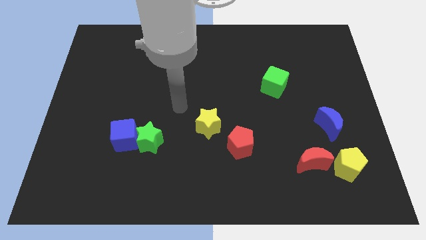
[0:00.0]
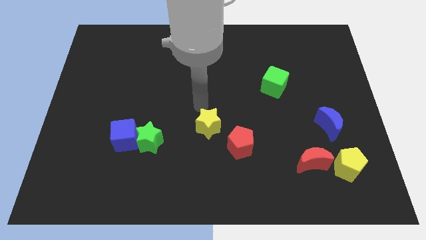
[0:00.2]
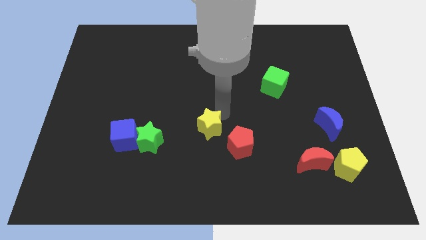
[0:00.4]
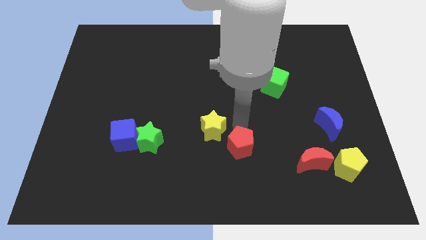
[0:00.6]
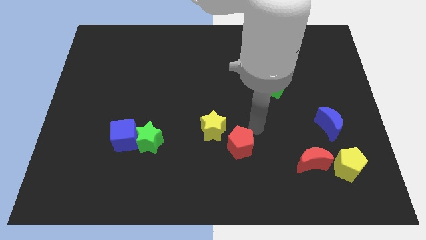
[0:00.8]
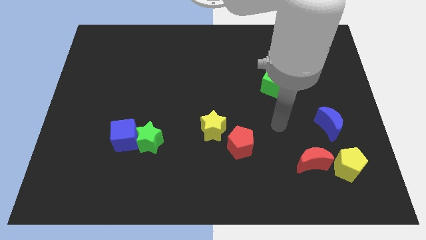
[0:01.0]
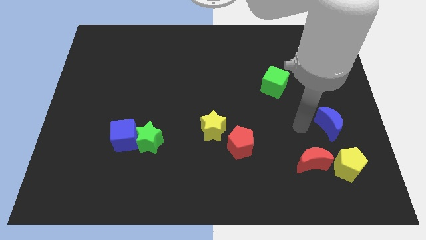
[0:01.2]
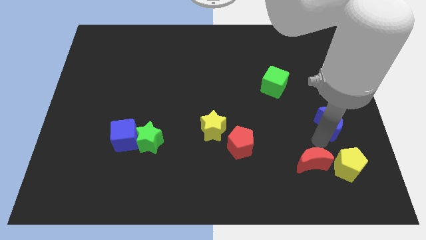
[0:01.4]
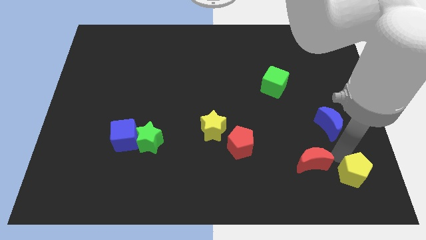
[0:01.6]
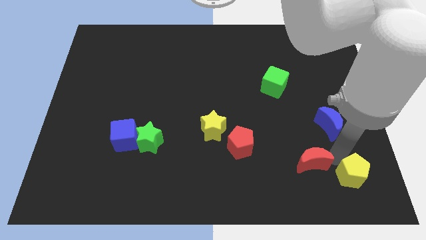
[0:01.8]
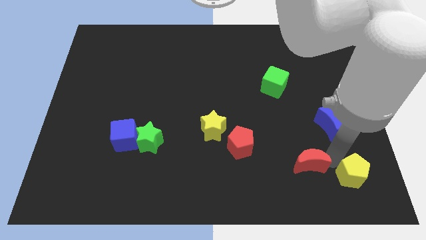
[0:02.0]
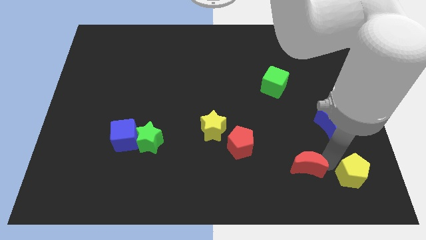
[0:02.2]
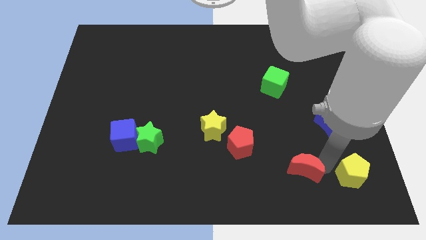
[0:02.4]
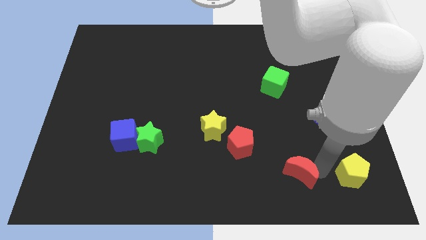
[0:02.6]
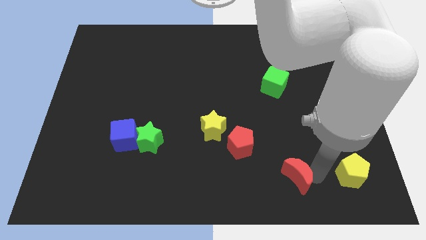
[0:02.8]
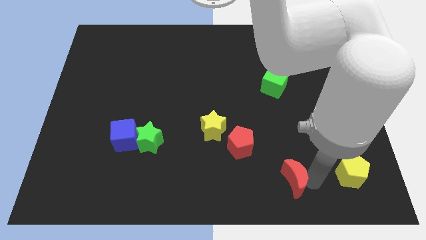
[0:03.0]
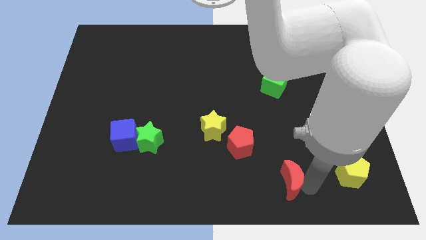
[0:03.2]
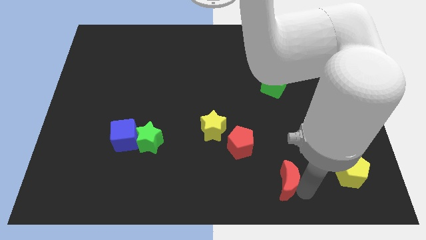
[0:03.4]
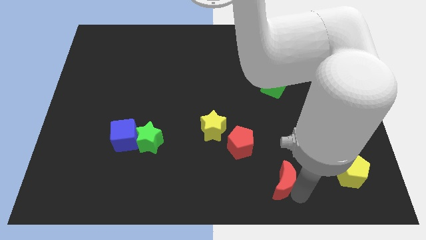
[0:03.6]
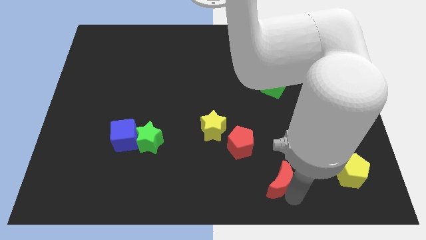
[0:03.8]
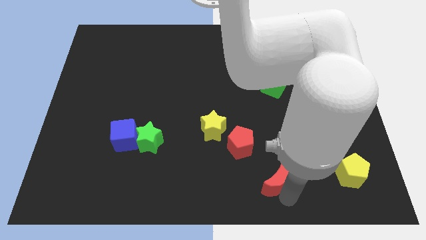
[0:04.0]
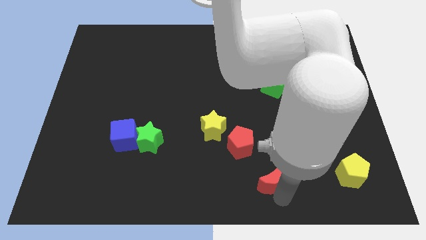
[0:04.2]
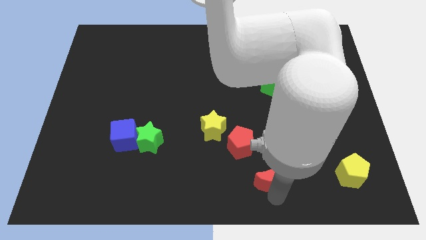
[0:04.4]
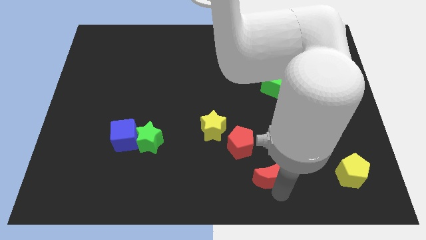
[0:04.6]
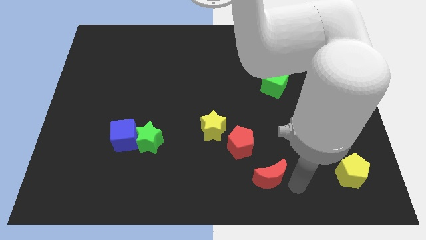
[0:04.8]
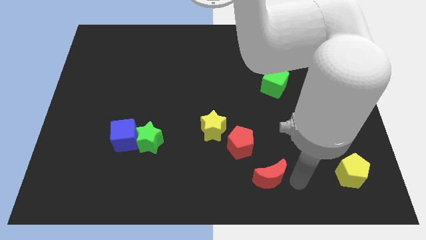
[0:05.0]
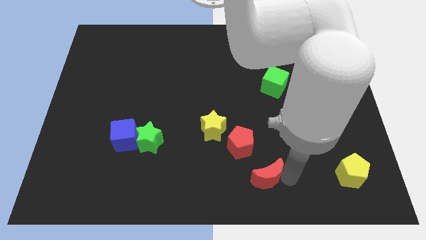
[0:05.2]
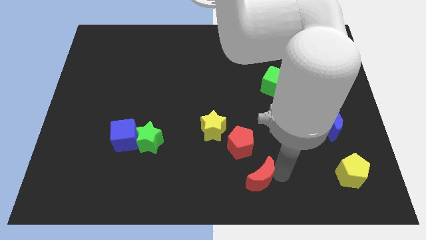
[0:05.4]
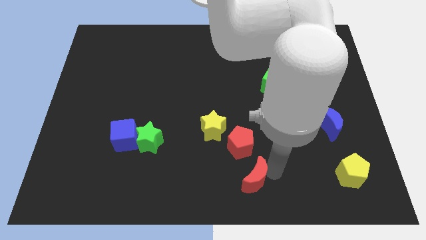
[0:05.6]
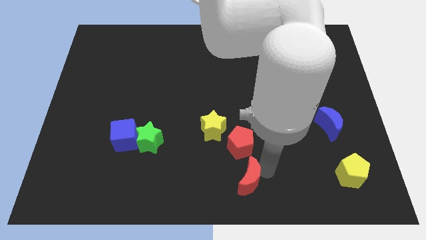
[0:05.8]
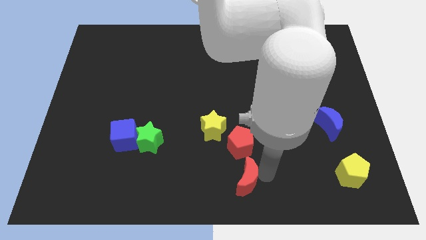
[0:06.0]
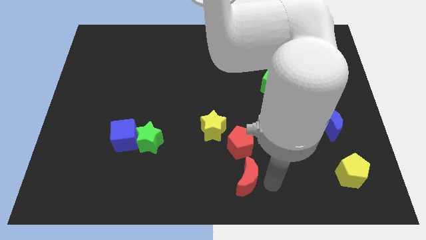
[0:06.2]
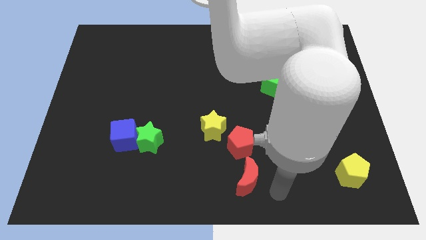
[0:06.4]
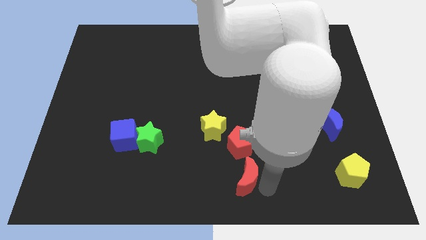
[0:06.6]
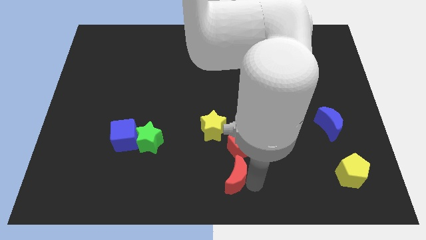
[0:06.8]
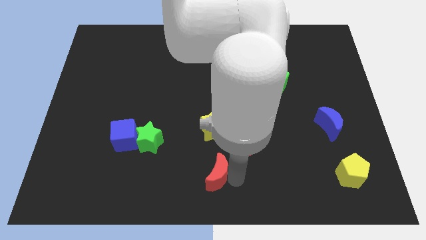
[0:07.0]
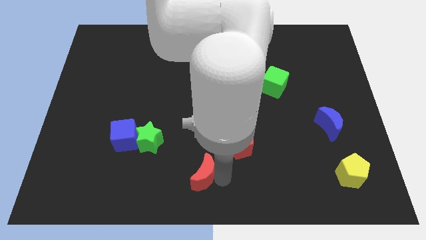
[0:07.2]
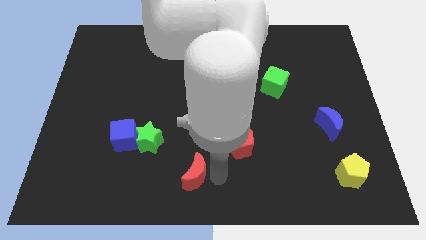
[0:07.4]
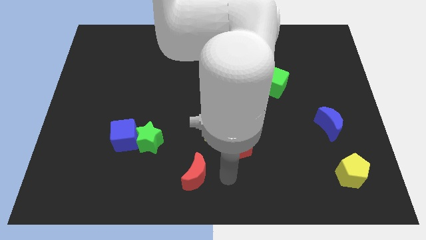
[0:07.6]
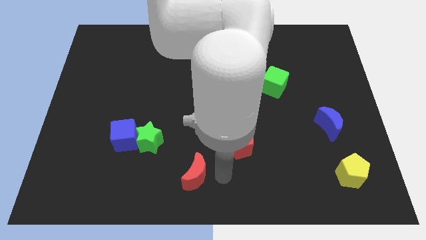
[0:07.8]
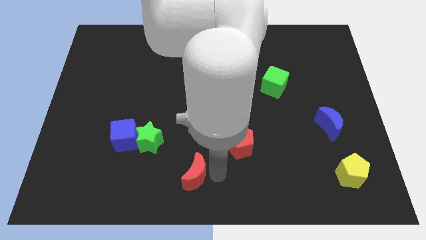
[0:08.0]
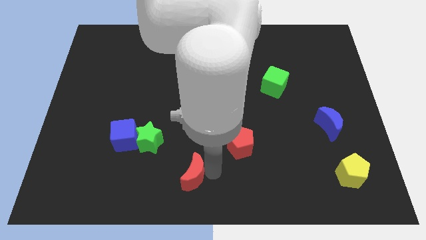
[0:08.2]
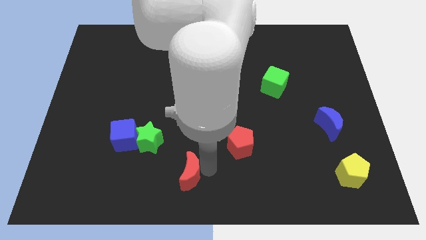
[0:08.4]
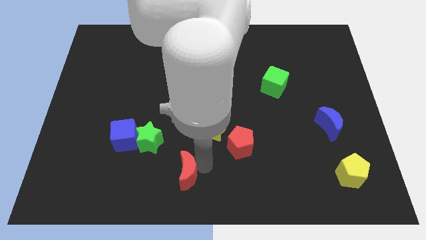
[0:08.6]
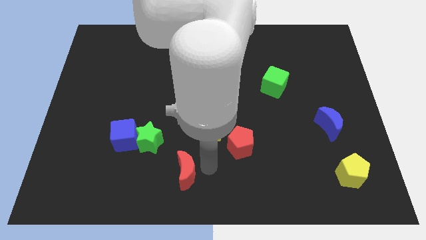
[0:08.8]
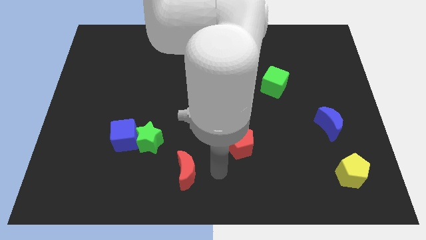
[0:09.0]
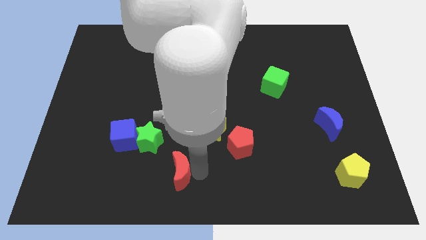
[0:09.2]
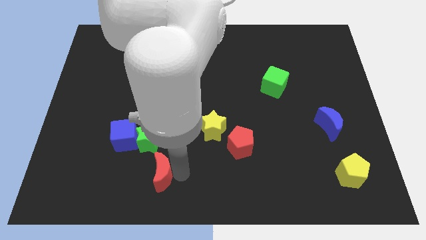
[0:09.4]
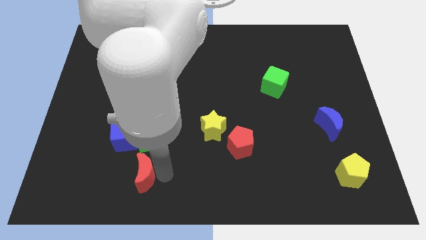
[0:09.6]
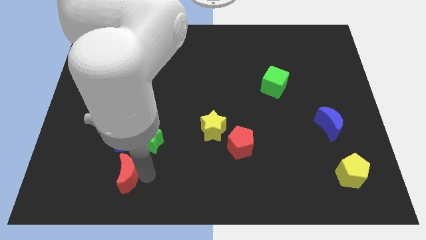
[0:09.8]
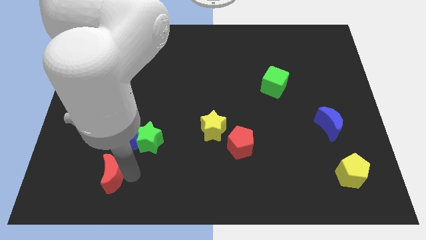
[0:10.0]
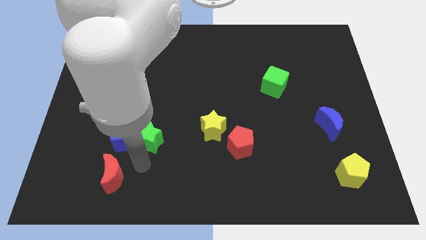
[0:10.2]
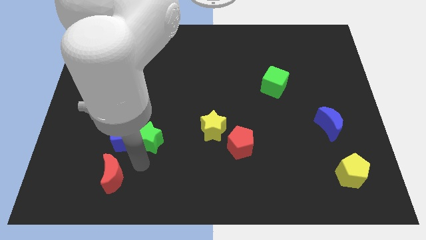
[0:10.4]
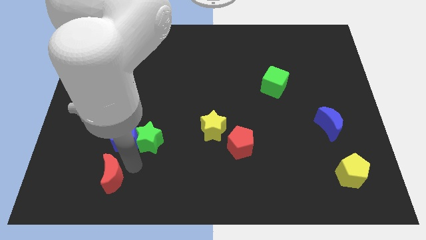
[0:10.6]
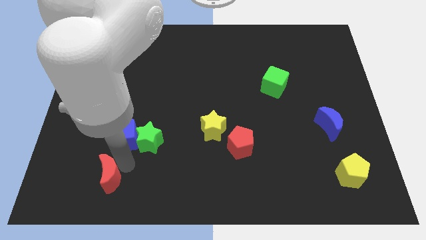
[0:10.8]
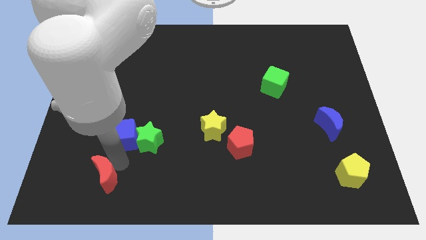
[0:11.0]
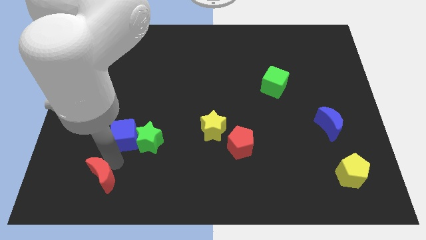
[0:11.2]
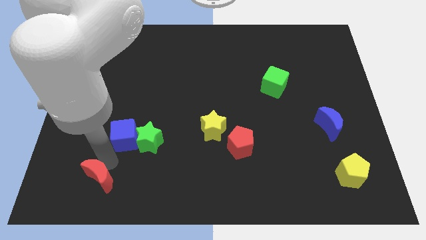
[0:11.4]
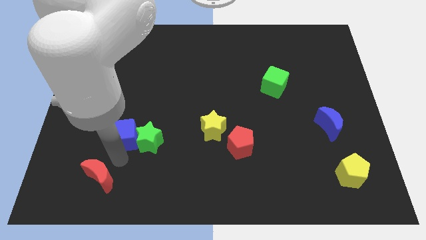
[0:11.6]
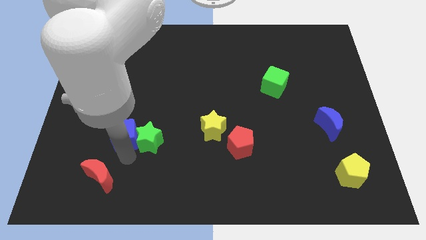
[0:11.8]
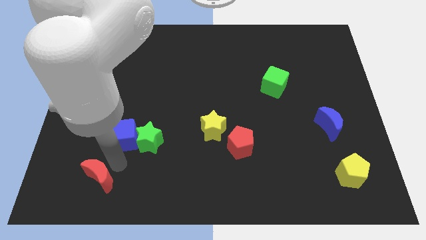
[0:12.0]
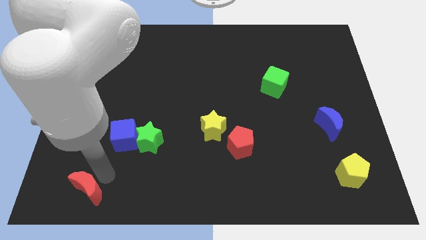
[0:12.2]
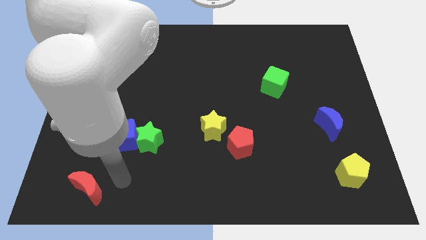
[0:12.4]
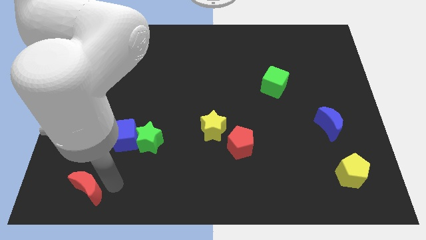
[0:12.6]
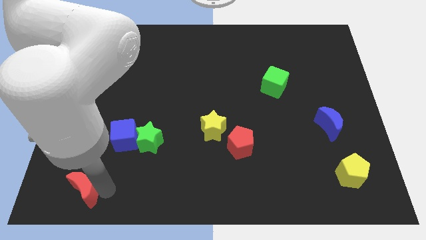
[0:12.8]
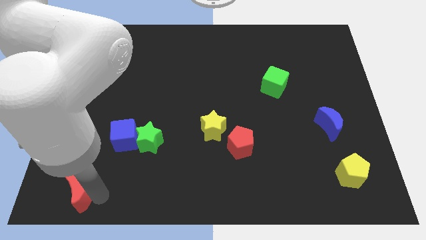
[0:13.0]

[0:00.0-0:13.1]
move the red moon to the bottom left corner
